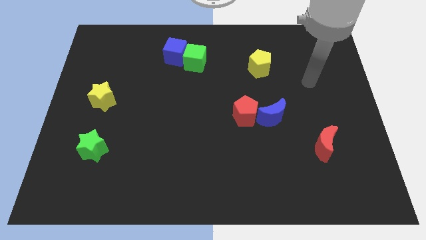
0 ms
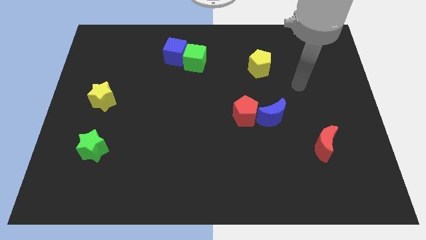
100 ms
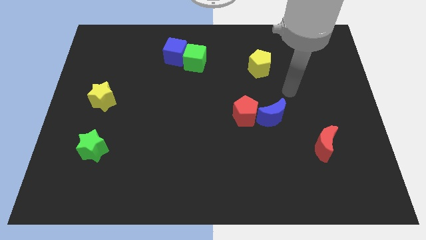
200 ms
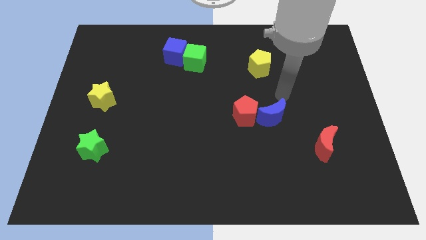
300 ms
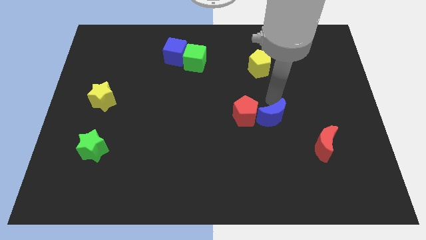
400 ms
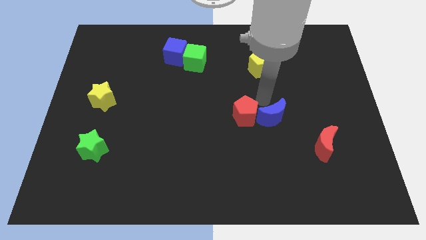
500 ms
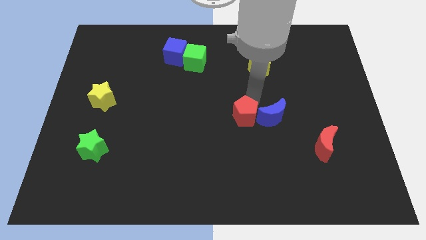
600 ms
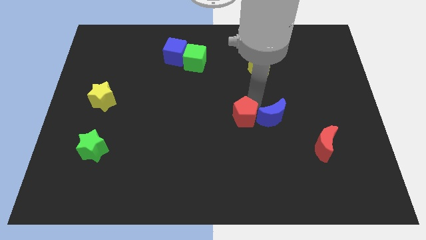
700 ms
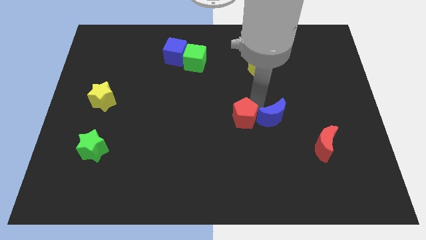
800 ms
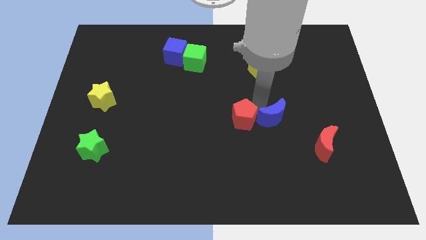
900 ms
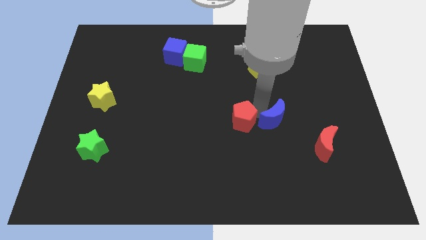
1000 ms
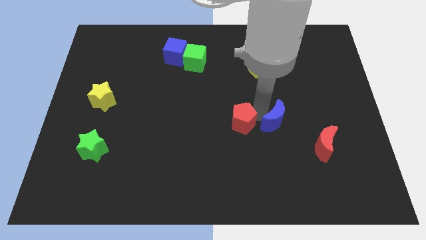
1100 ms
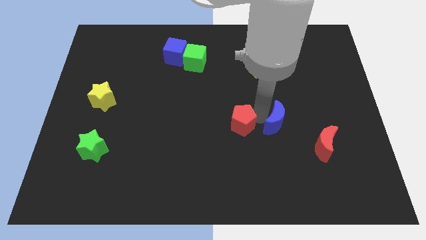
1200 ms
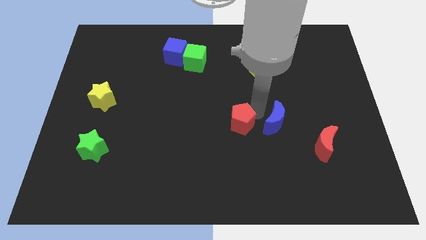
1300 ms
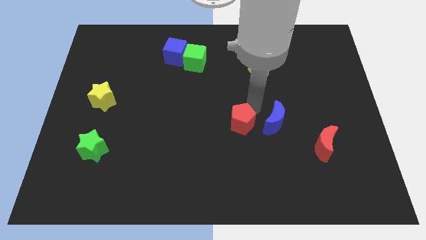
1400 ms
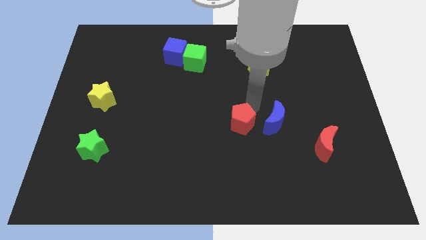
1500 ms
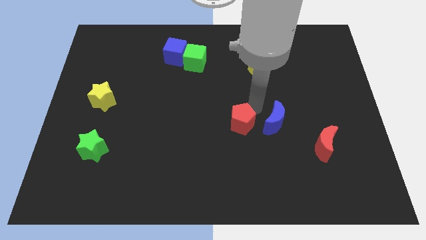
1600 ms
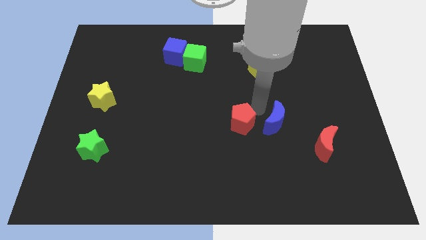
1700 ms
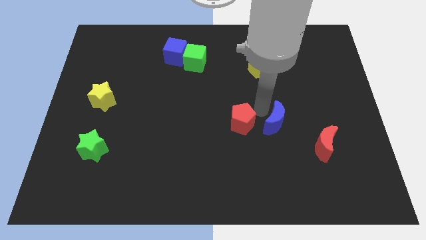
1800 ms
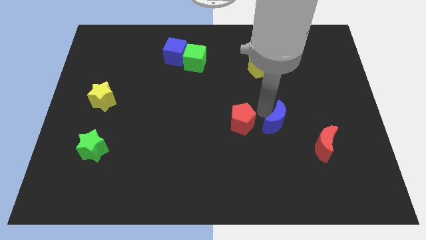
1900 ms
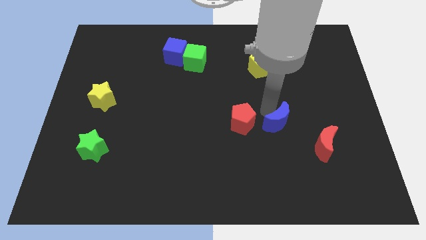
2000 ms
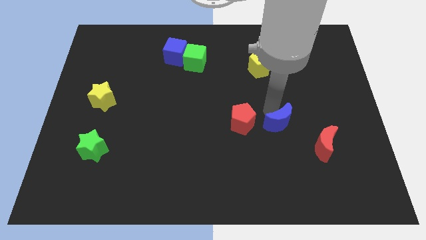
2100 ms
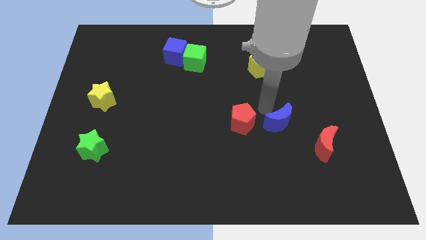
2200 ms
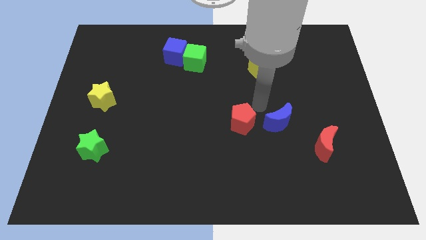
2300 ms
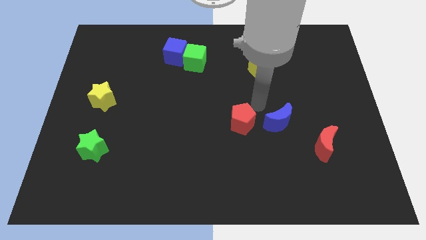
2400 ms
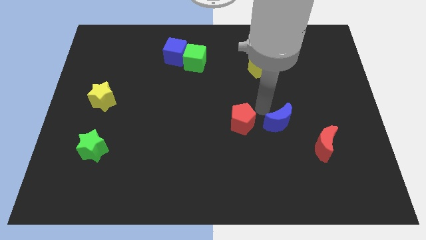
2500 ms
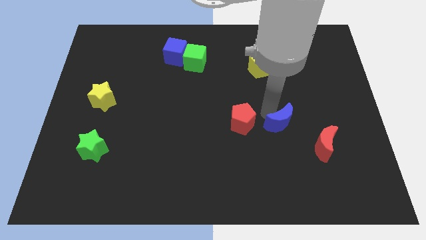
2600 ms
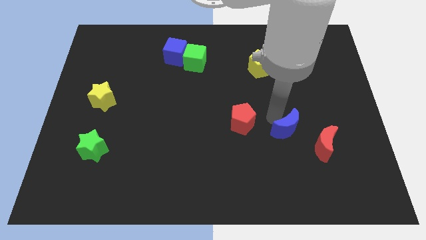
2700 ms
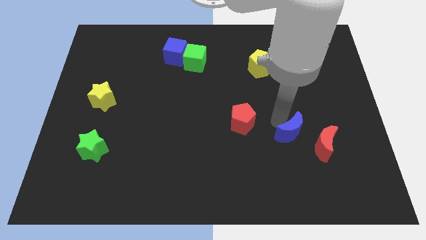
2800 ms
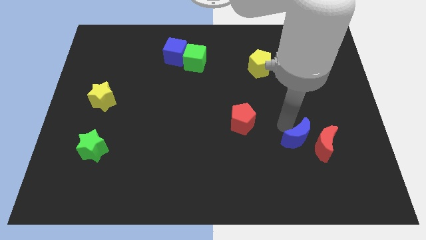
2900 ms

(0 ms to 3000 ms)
slide the blue moon a little downwards and to the right diagonally

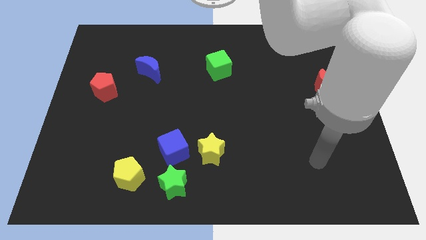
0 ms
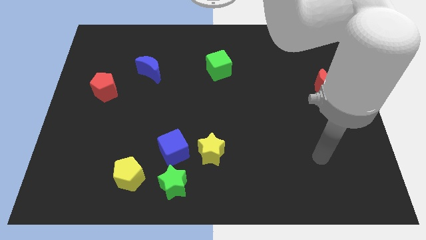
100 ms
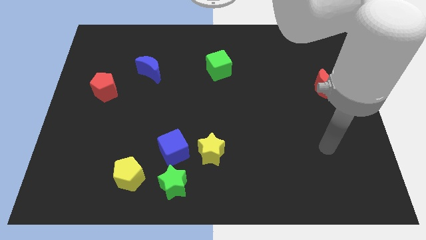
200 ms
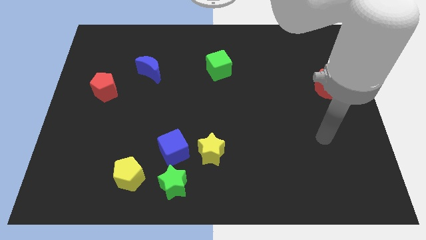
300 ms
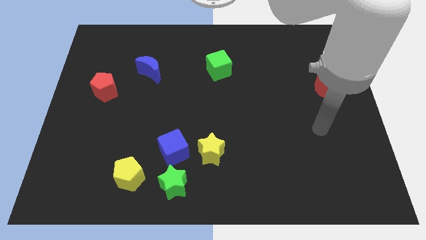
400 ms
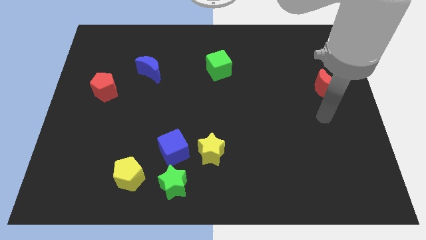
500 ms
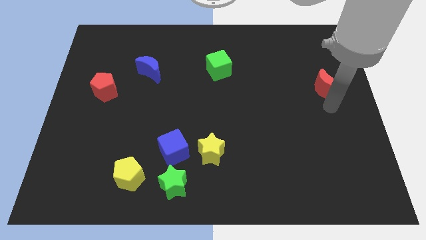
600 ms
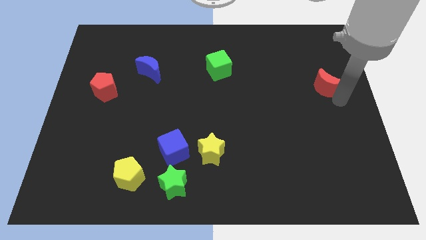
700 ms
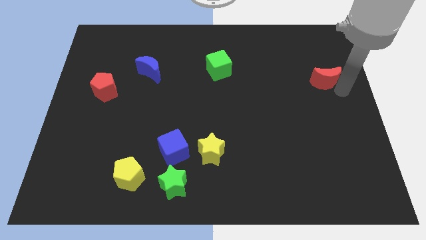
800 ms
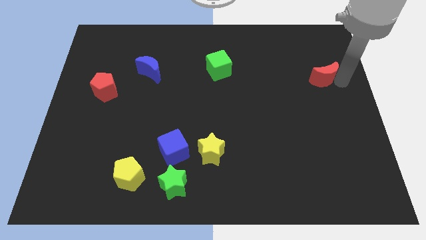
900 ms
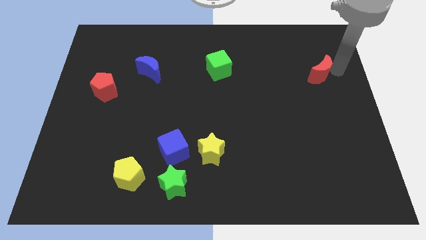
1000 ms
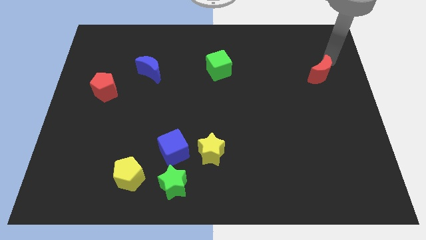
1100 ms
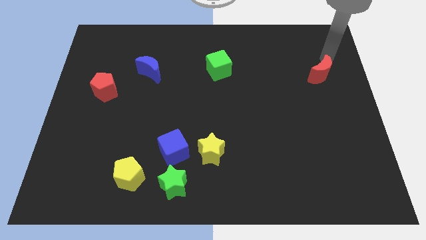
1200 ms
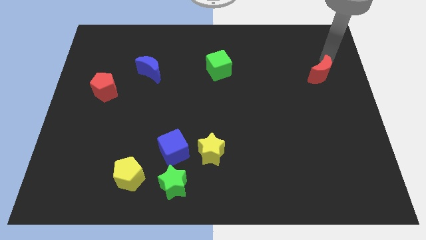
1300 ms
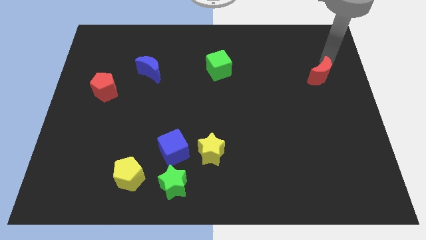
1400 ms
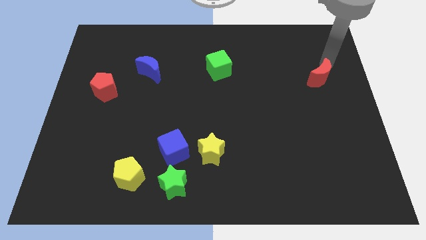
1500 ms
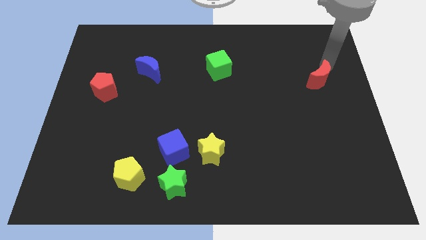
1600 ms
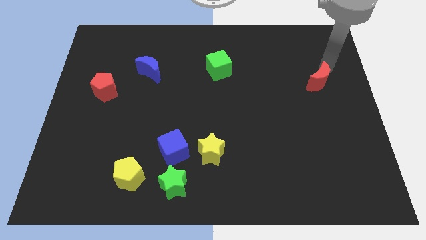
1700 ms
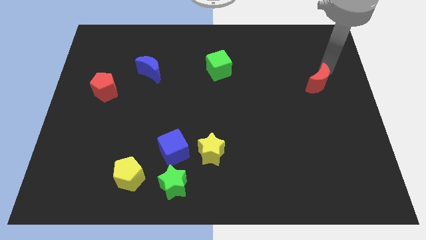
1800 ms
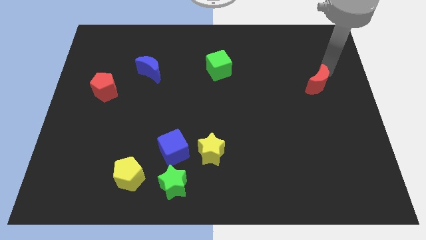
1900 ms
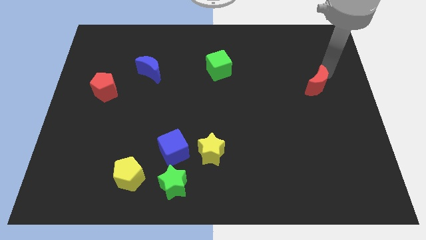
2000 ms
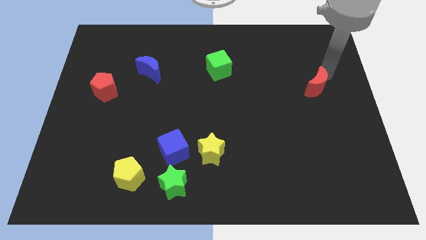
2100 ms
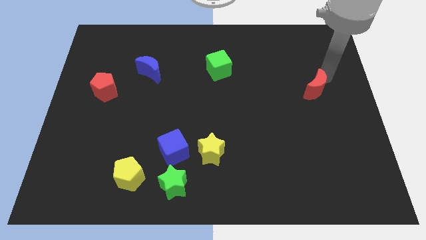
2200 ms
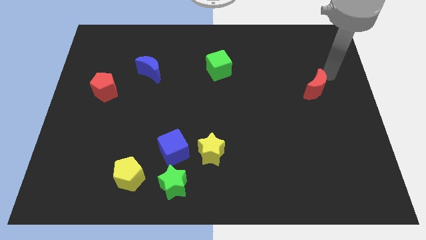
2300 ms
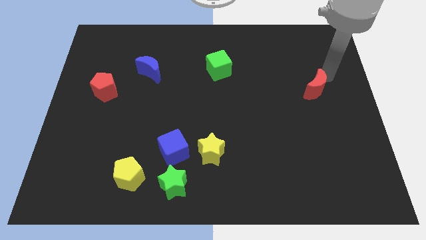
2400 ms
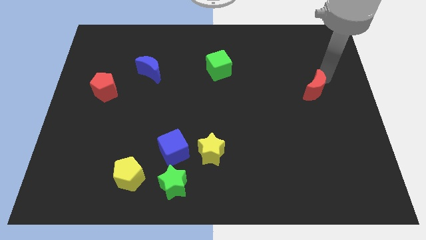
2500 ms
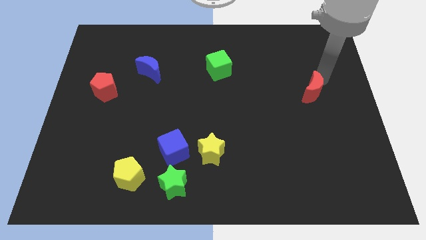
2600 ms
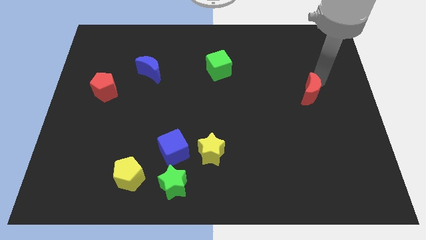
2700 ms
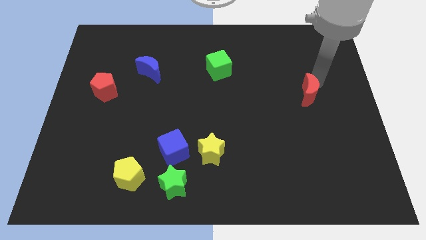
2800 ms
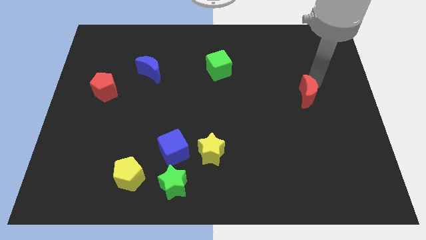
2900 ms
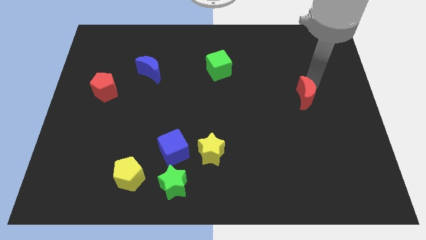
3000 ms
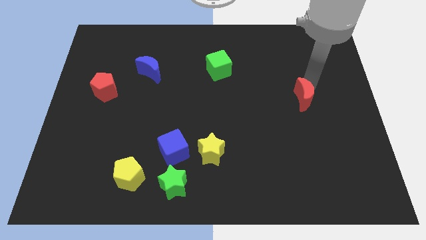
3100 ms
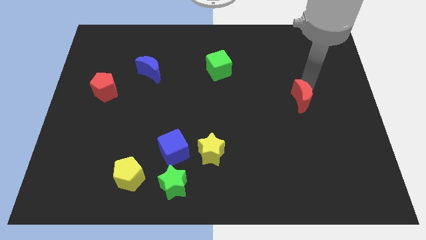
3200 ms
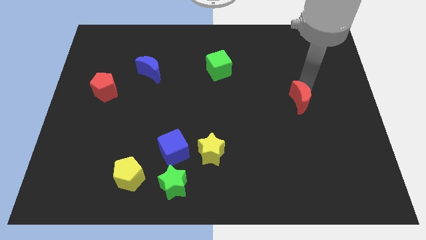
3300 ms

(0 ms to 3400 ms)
push the red moon downwards and left diagonally a bit

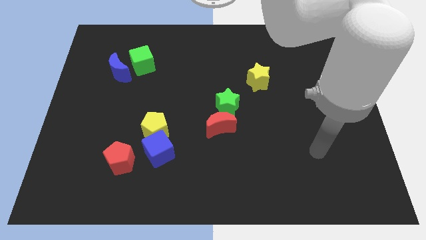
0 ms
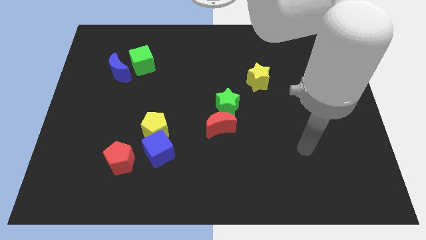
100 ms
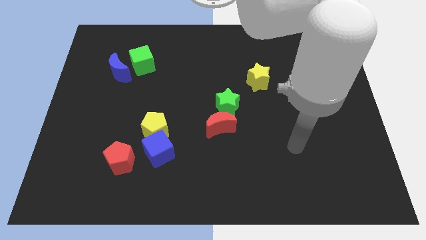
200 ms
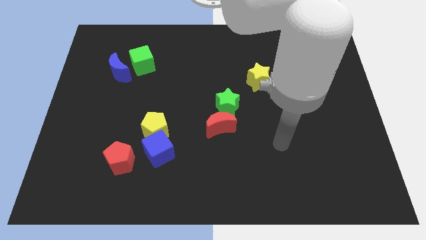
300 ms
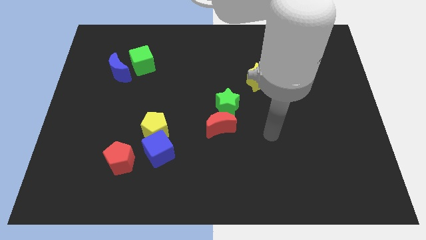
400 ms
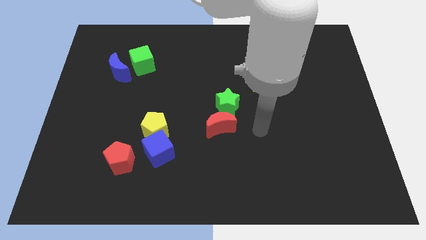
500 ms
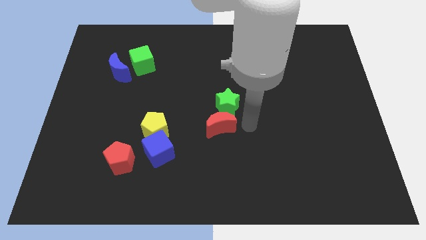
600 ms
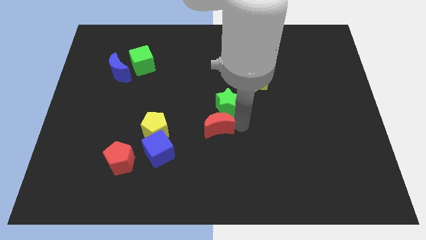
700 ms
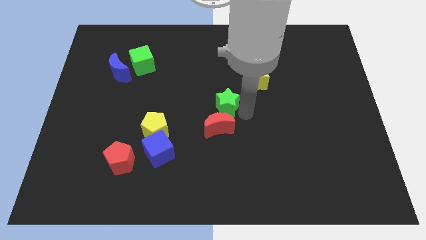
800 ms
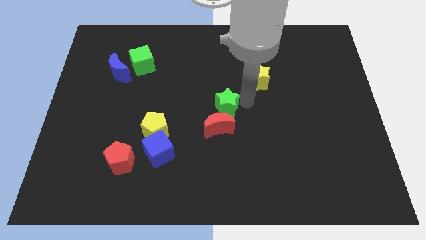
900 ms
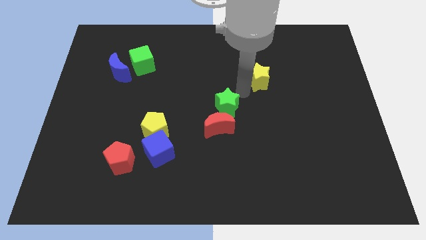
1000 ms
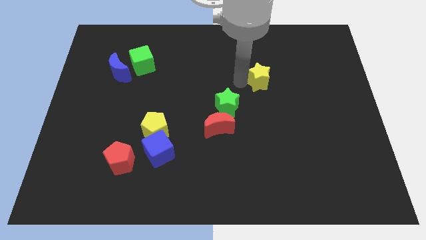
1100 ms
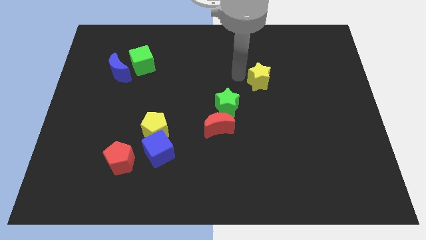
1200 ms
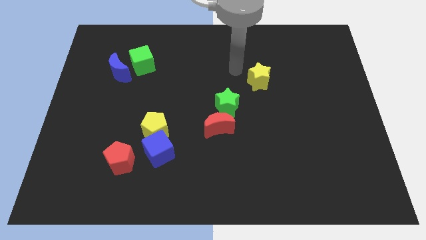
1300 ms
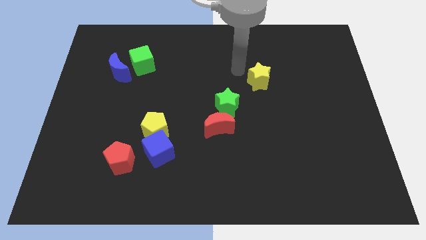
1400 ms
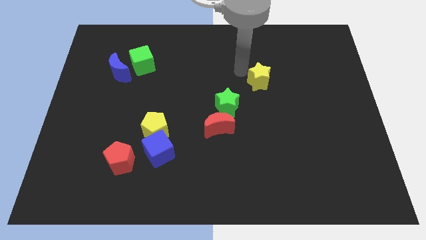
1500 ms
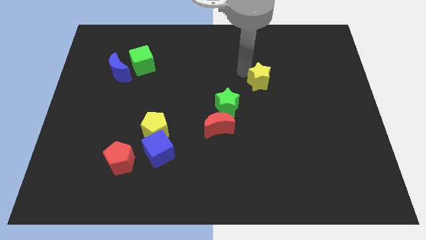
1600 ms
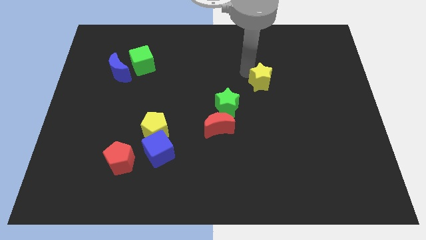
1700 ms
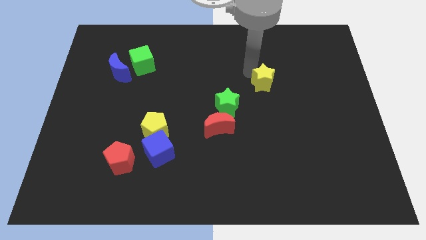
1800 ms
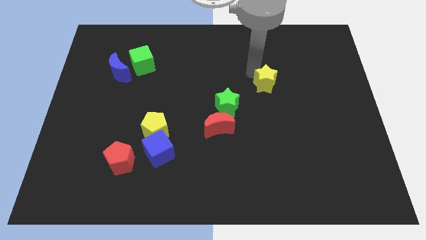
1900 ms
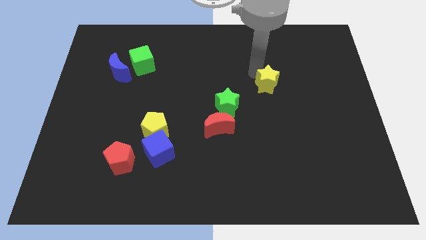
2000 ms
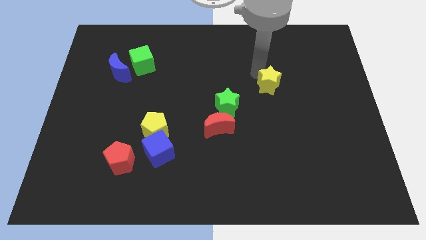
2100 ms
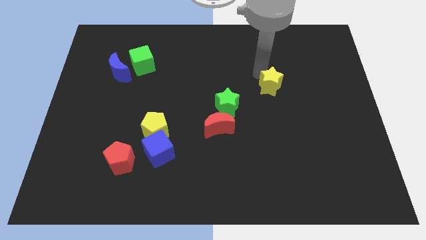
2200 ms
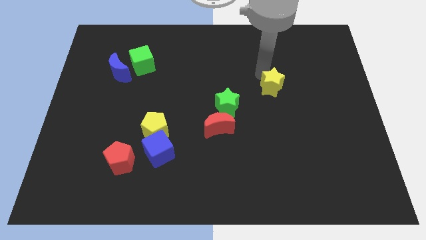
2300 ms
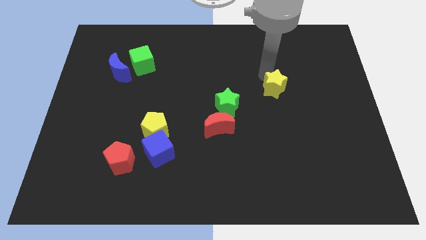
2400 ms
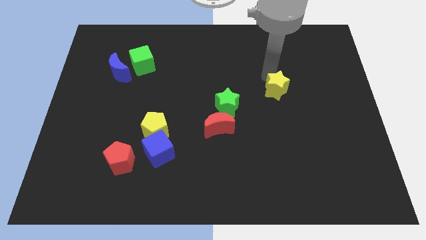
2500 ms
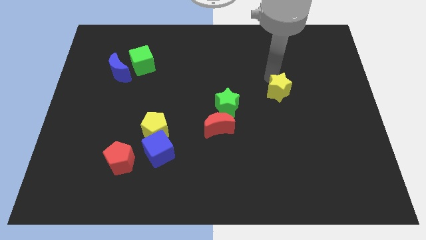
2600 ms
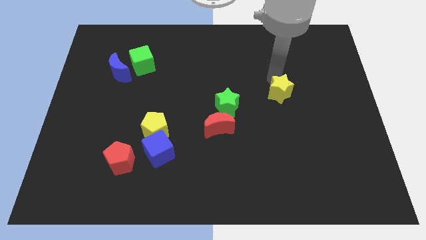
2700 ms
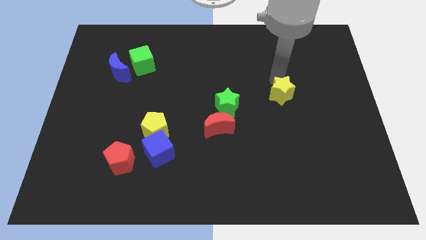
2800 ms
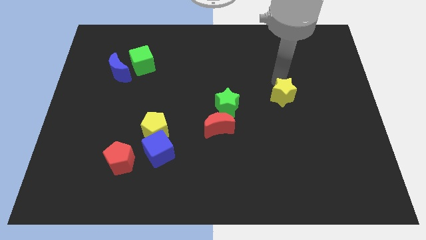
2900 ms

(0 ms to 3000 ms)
slide the yellow star a little down and right diagonally
